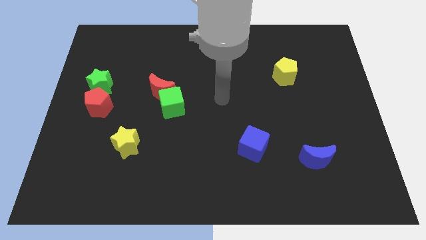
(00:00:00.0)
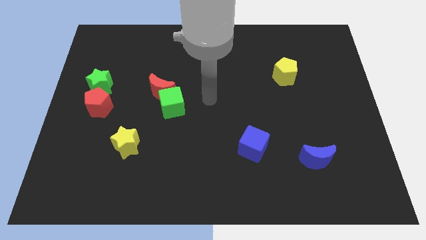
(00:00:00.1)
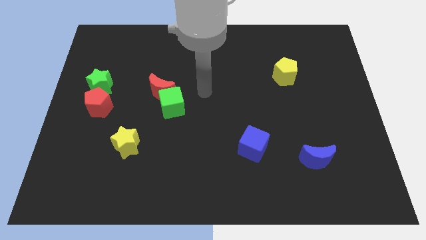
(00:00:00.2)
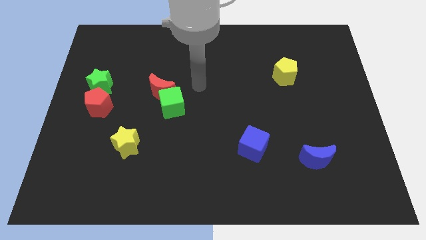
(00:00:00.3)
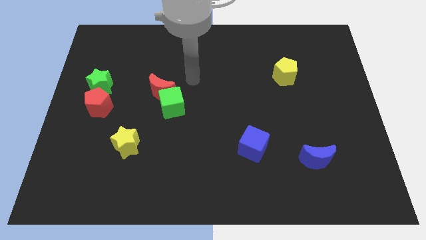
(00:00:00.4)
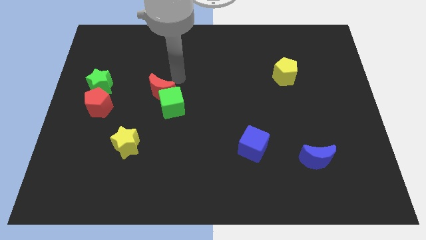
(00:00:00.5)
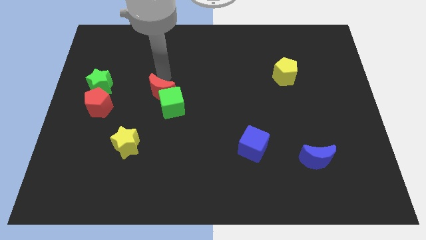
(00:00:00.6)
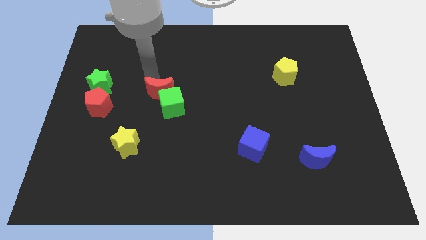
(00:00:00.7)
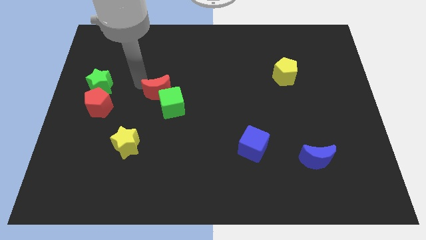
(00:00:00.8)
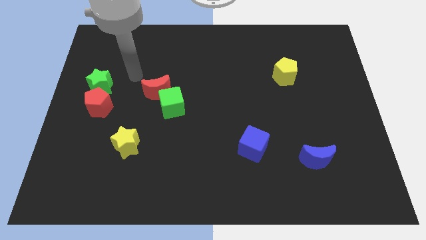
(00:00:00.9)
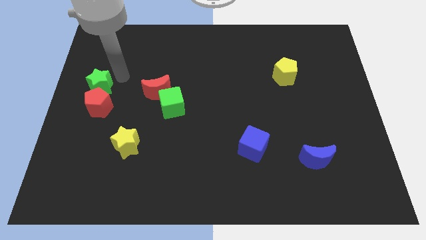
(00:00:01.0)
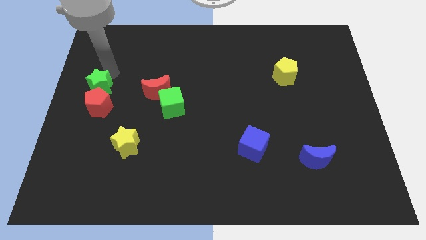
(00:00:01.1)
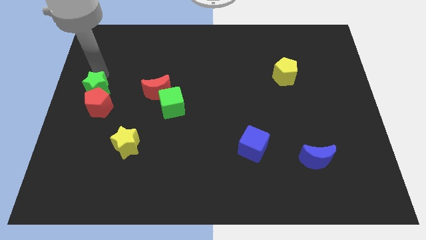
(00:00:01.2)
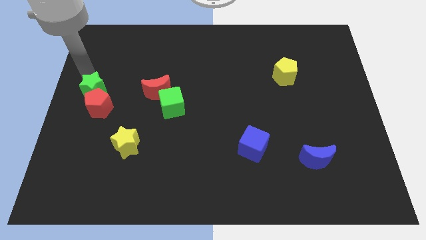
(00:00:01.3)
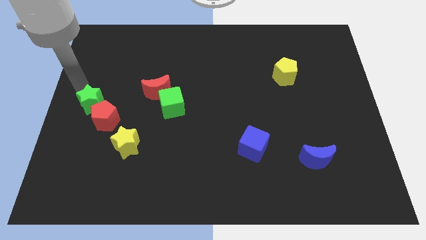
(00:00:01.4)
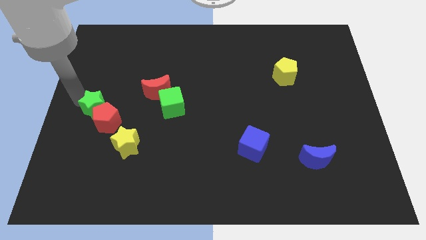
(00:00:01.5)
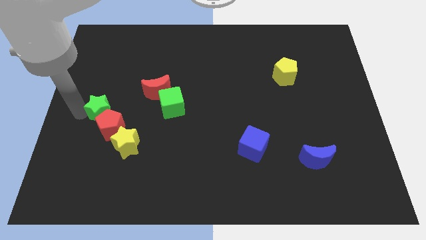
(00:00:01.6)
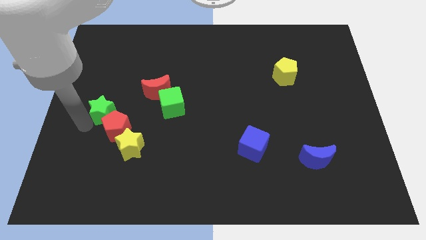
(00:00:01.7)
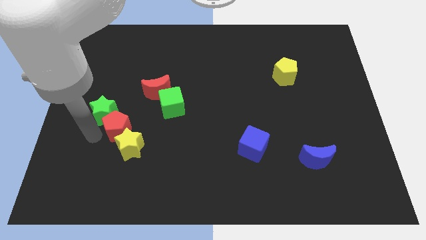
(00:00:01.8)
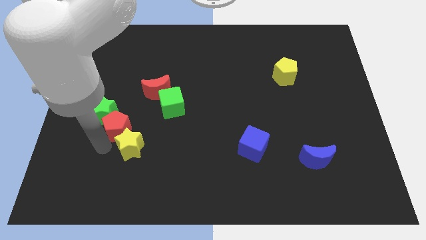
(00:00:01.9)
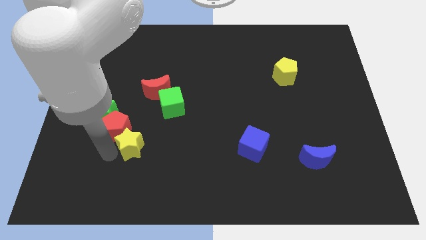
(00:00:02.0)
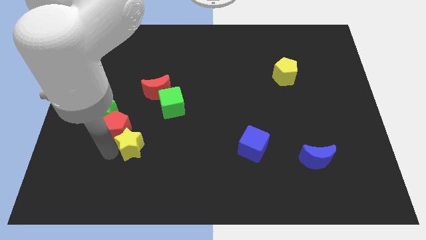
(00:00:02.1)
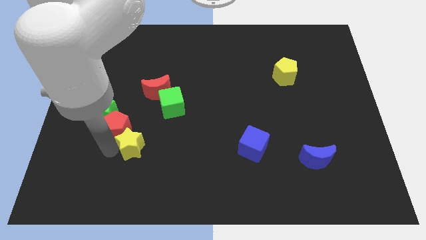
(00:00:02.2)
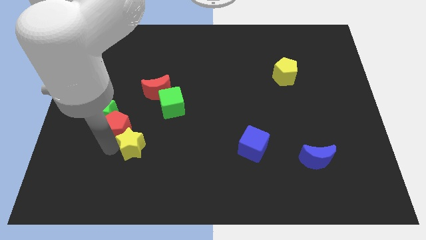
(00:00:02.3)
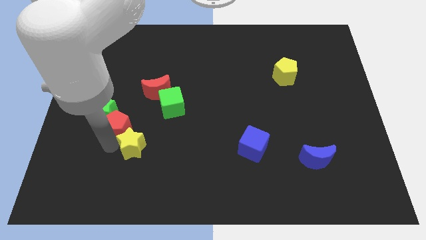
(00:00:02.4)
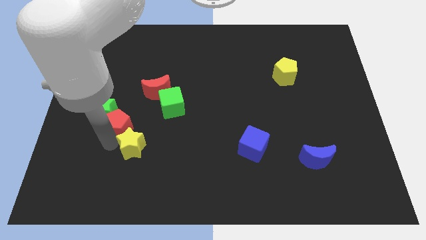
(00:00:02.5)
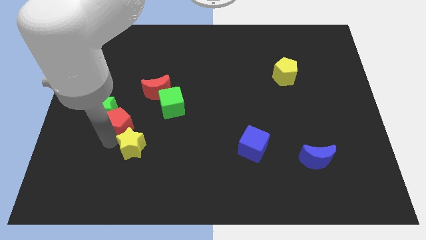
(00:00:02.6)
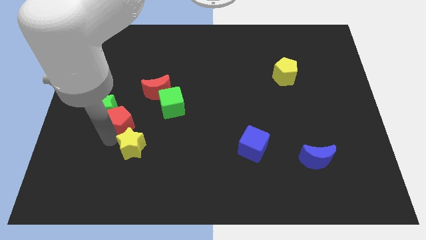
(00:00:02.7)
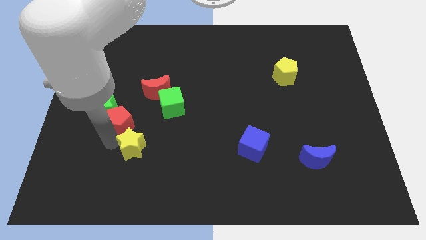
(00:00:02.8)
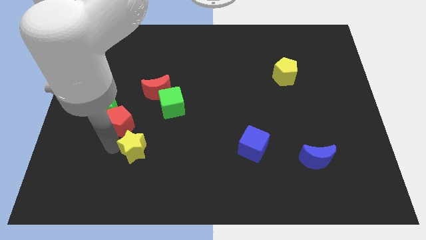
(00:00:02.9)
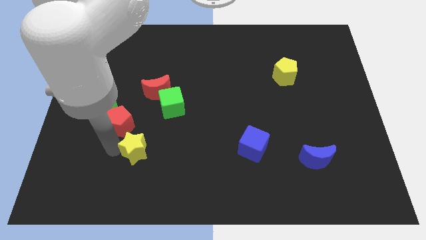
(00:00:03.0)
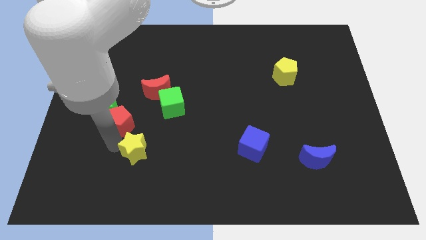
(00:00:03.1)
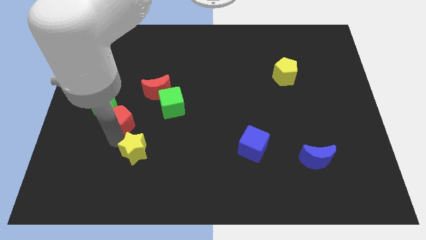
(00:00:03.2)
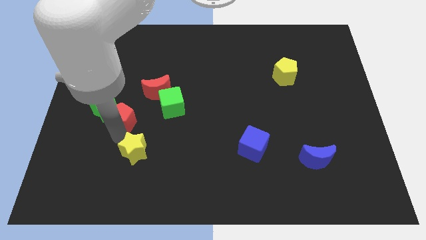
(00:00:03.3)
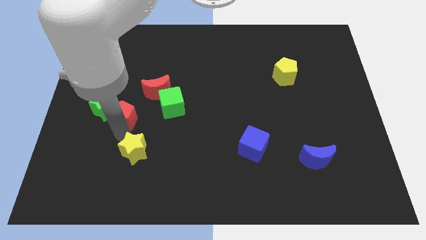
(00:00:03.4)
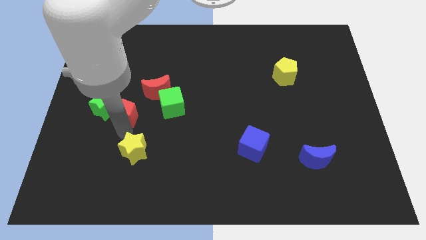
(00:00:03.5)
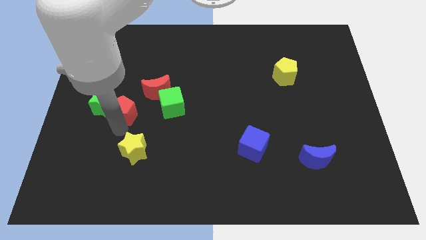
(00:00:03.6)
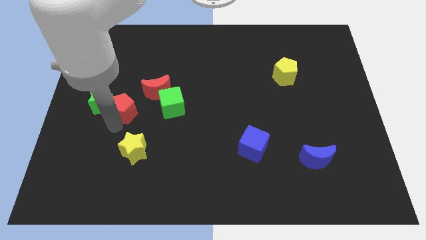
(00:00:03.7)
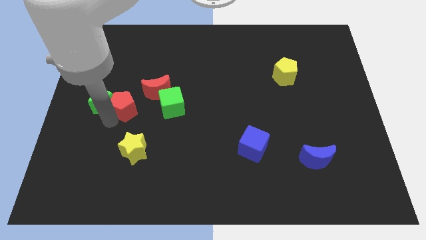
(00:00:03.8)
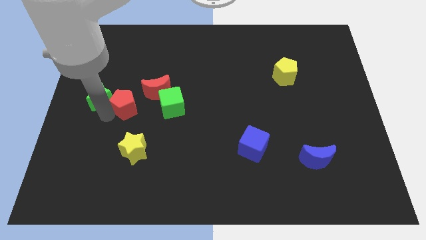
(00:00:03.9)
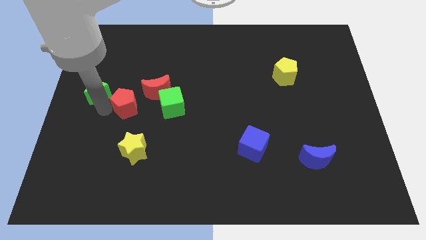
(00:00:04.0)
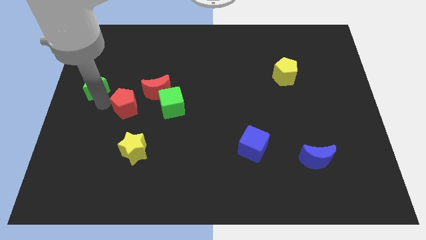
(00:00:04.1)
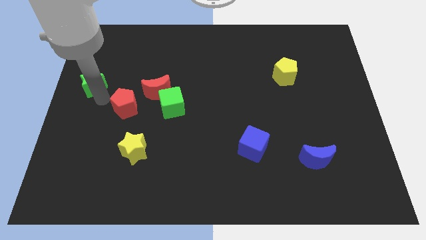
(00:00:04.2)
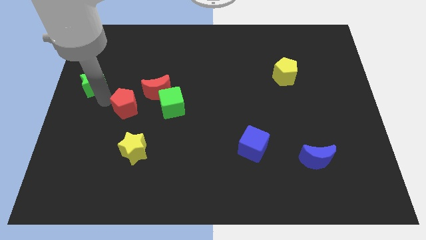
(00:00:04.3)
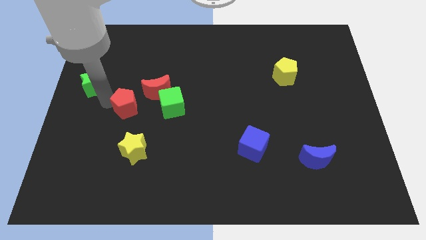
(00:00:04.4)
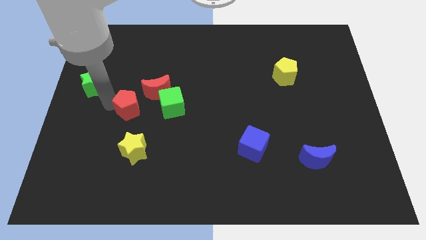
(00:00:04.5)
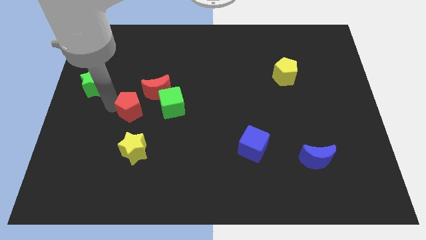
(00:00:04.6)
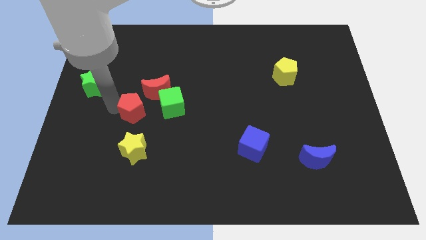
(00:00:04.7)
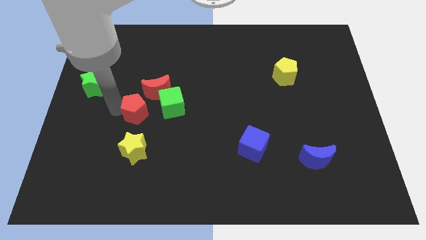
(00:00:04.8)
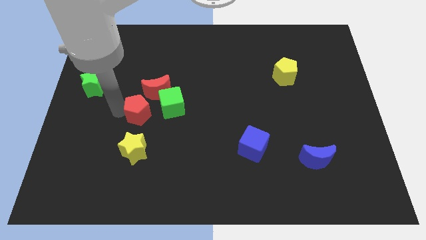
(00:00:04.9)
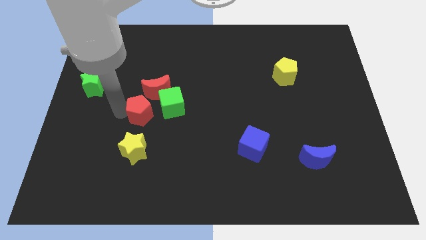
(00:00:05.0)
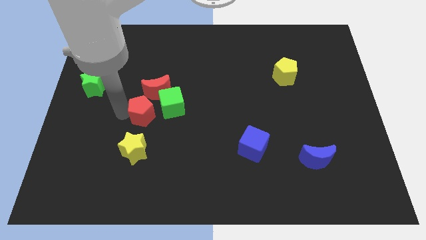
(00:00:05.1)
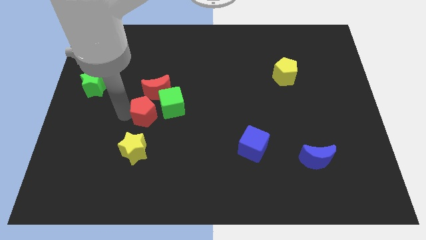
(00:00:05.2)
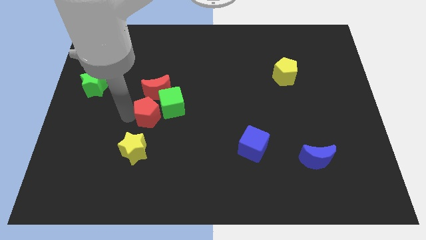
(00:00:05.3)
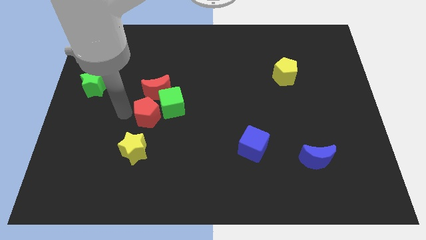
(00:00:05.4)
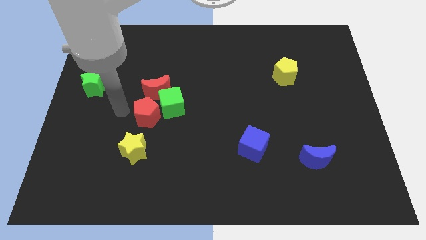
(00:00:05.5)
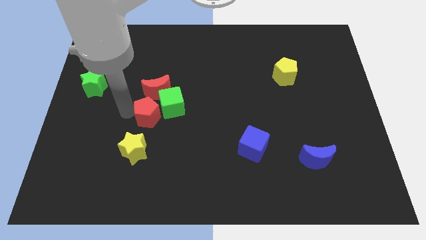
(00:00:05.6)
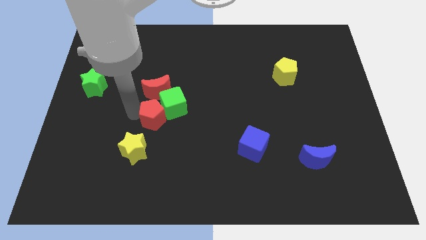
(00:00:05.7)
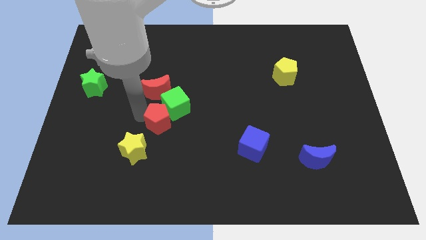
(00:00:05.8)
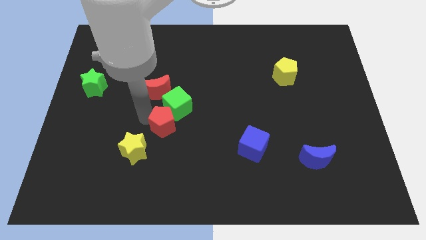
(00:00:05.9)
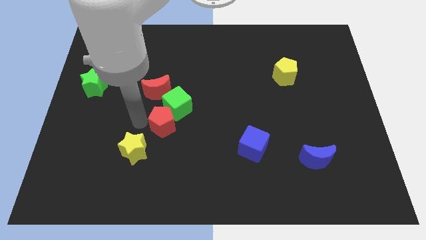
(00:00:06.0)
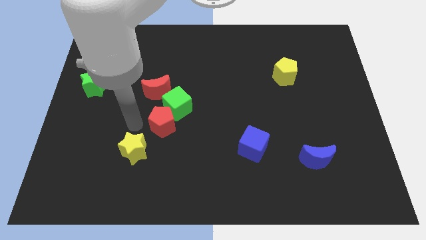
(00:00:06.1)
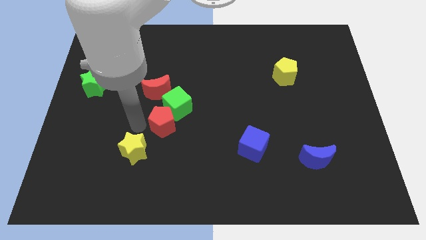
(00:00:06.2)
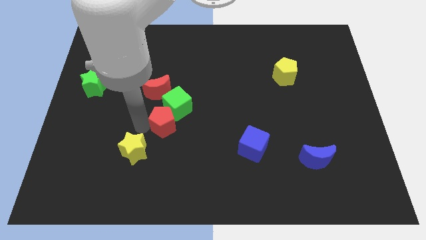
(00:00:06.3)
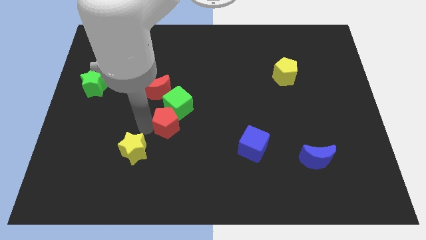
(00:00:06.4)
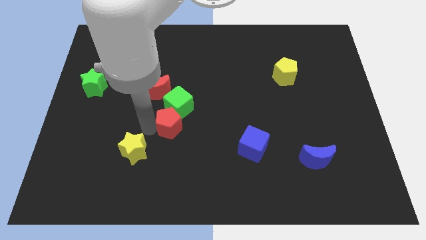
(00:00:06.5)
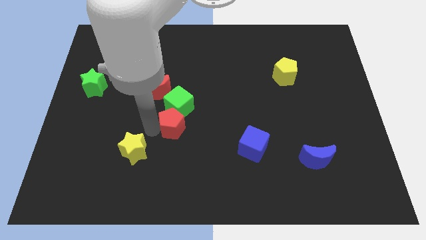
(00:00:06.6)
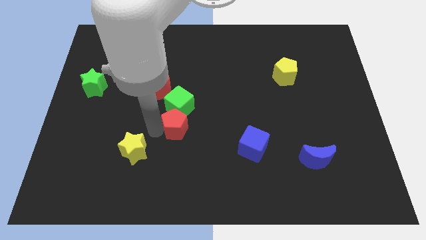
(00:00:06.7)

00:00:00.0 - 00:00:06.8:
slide the red pentagon to the bottom right of the green cube
